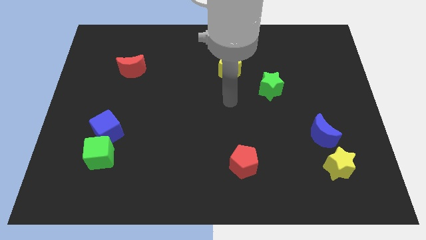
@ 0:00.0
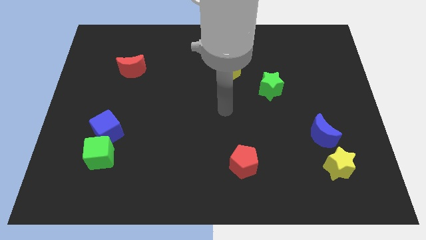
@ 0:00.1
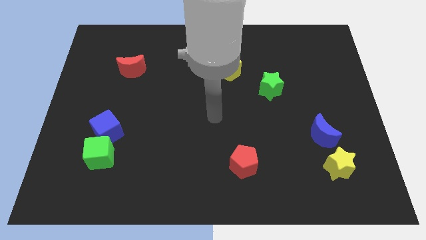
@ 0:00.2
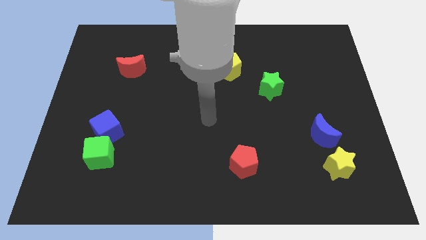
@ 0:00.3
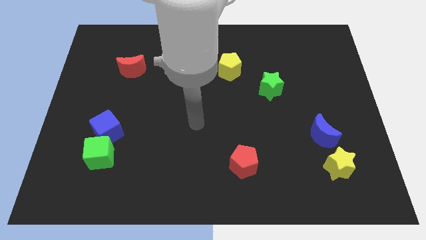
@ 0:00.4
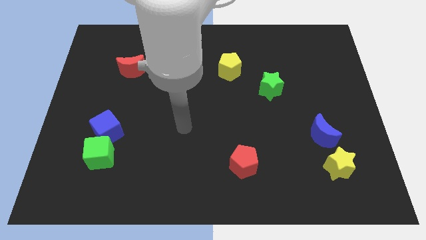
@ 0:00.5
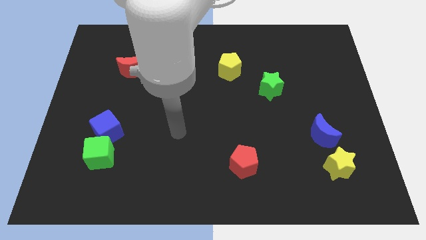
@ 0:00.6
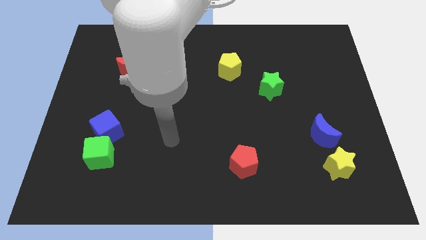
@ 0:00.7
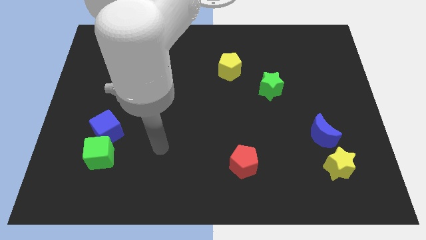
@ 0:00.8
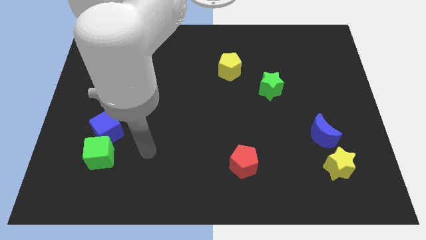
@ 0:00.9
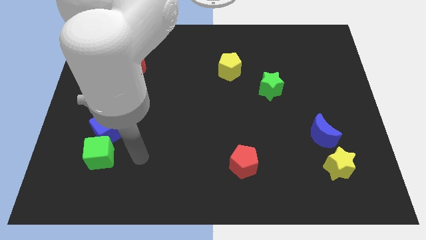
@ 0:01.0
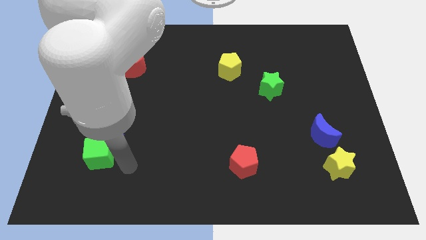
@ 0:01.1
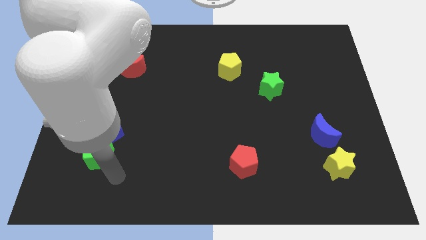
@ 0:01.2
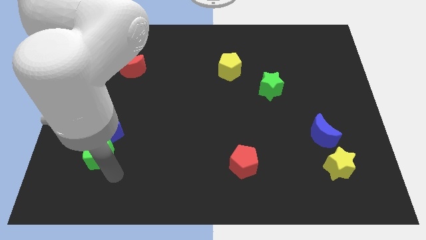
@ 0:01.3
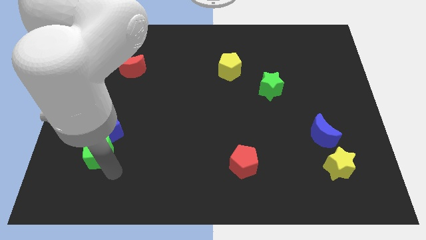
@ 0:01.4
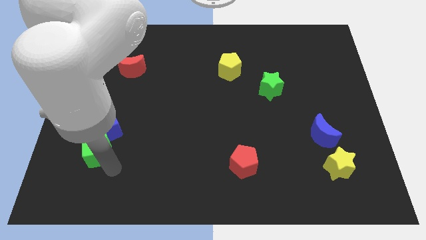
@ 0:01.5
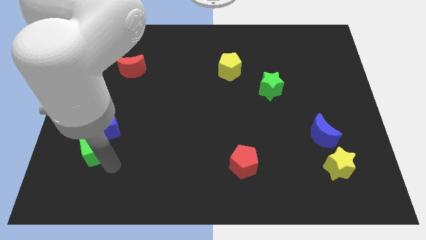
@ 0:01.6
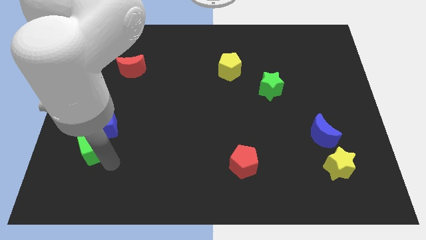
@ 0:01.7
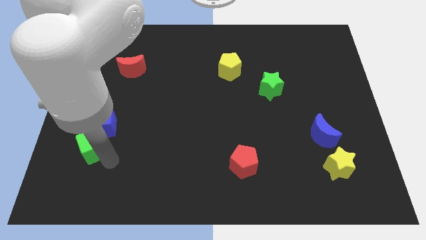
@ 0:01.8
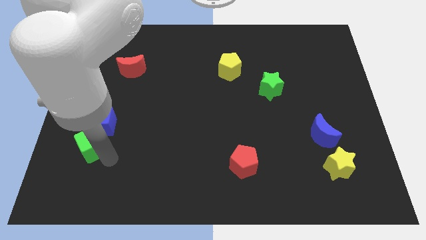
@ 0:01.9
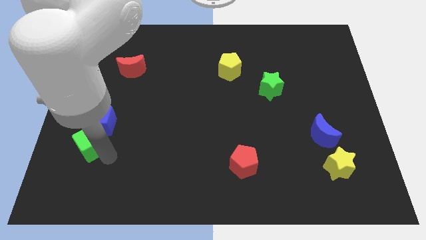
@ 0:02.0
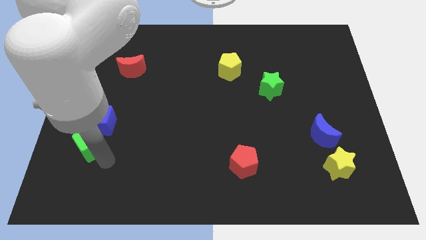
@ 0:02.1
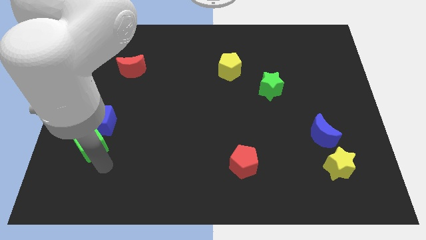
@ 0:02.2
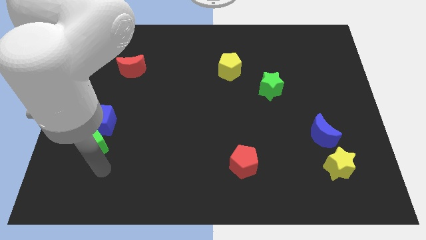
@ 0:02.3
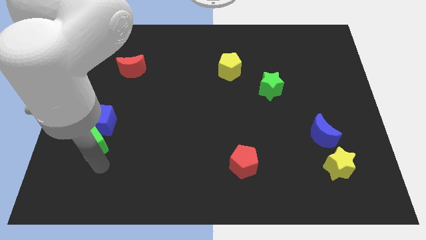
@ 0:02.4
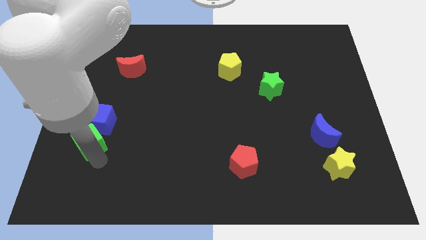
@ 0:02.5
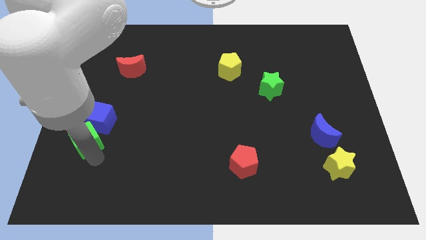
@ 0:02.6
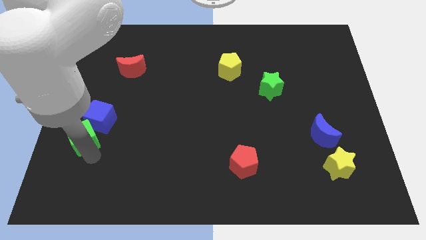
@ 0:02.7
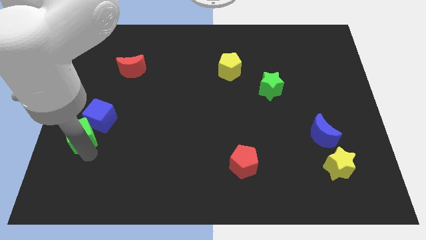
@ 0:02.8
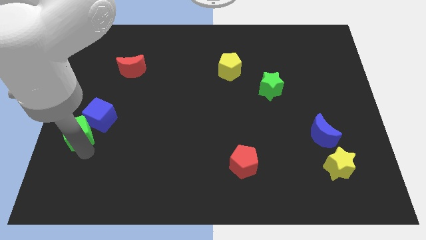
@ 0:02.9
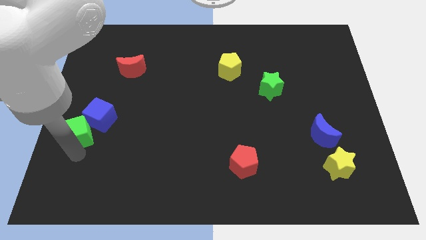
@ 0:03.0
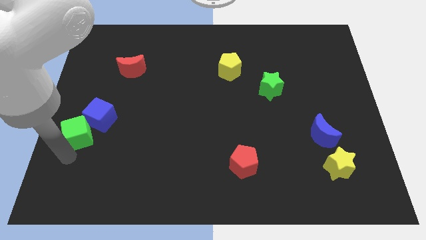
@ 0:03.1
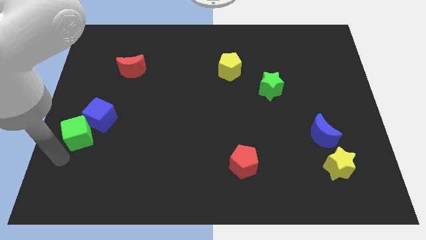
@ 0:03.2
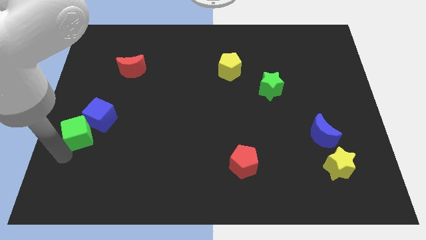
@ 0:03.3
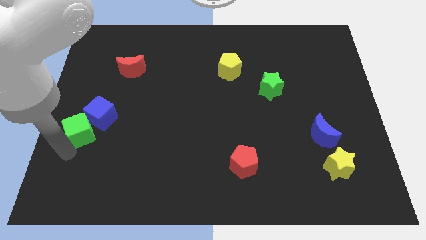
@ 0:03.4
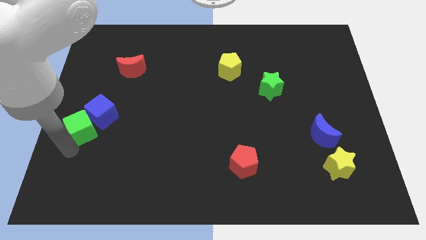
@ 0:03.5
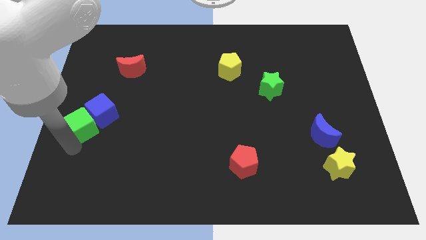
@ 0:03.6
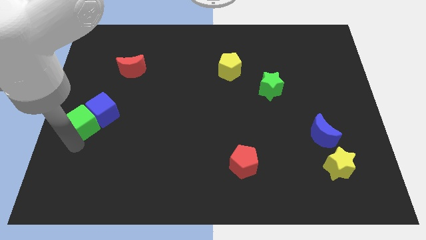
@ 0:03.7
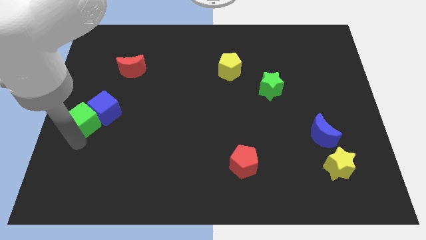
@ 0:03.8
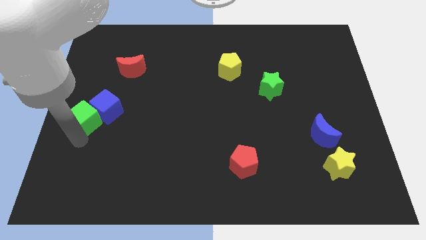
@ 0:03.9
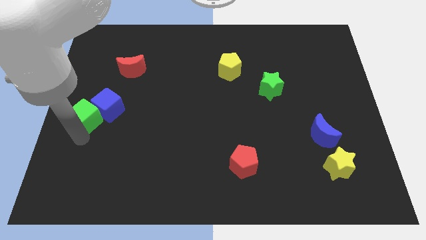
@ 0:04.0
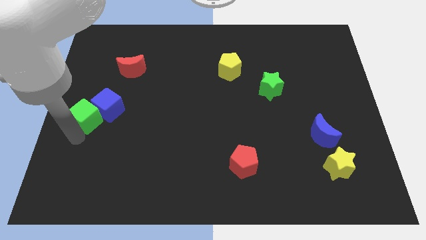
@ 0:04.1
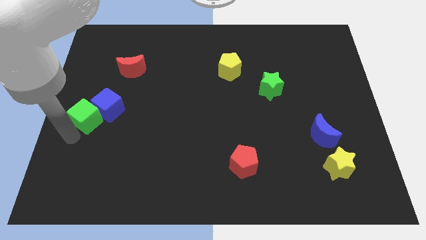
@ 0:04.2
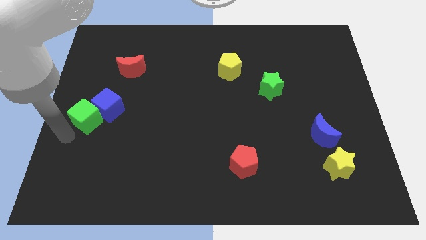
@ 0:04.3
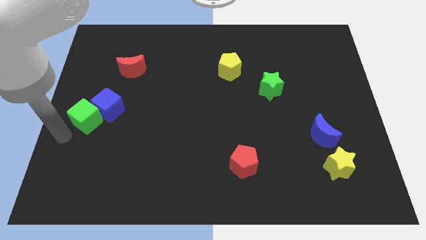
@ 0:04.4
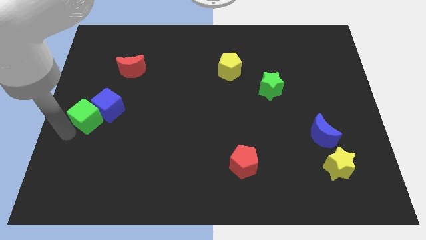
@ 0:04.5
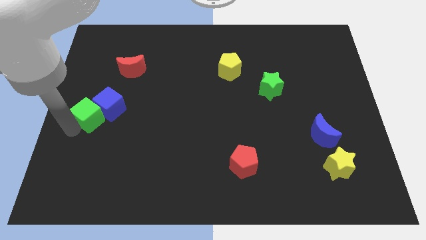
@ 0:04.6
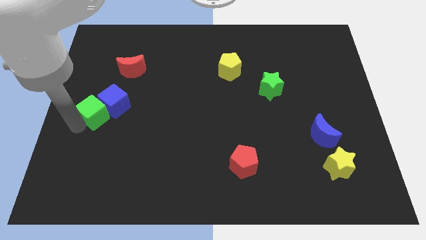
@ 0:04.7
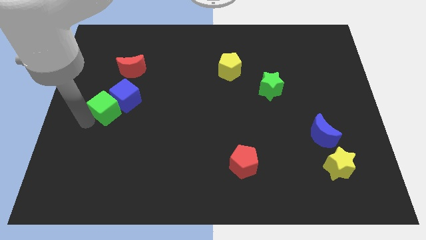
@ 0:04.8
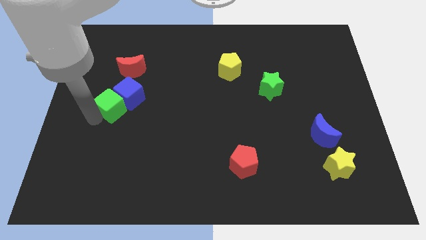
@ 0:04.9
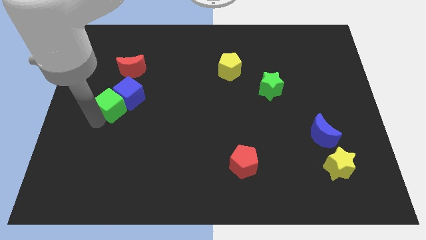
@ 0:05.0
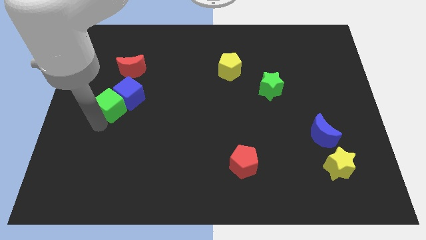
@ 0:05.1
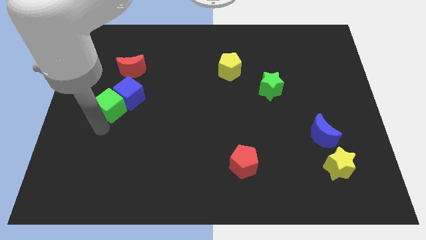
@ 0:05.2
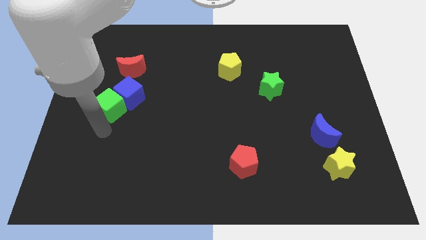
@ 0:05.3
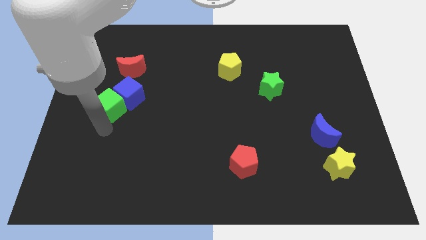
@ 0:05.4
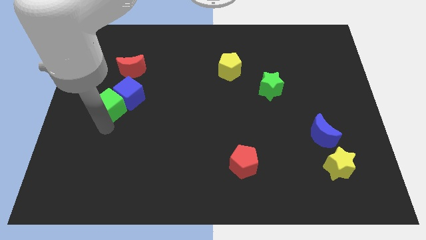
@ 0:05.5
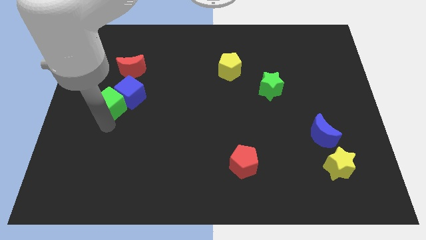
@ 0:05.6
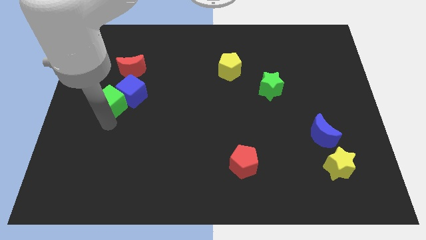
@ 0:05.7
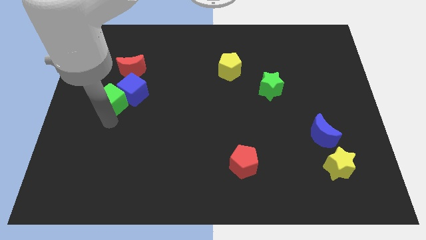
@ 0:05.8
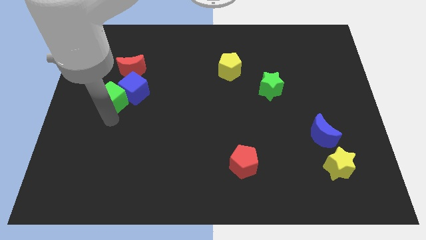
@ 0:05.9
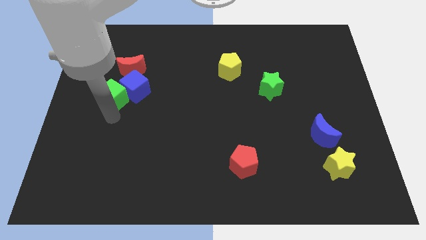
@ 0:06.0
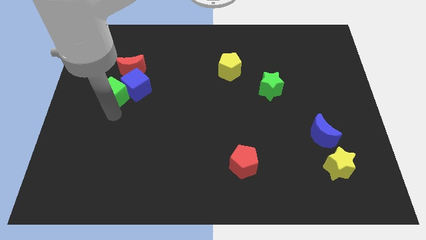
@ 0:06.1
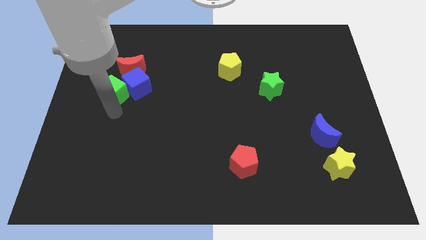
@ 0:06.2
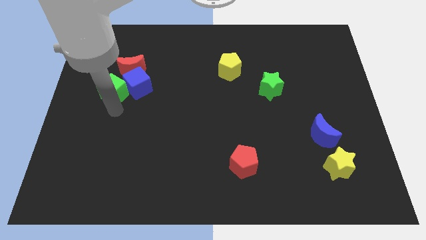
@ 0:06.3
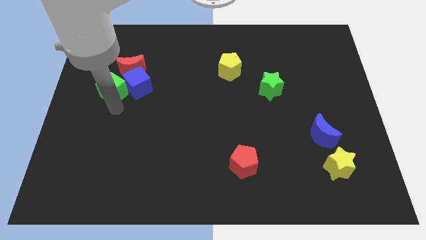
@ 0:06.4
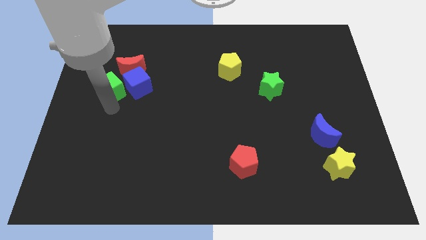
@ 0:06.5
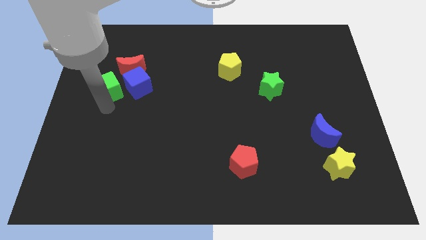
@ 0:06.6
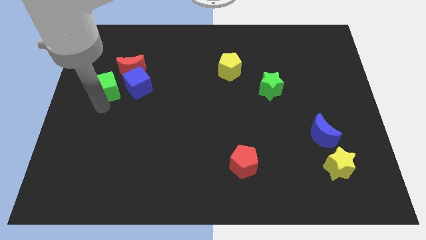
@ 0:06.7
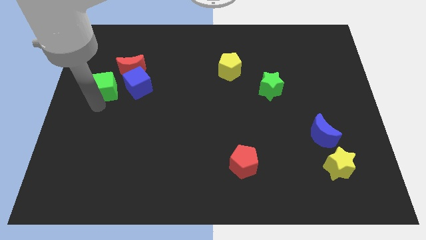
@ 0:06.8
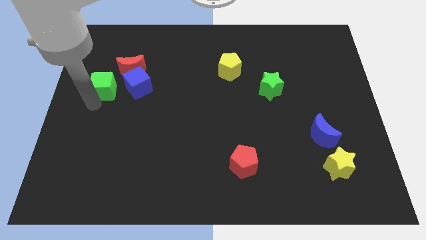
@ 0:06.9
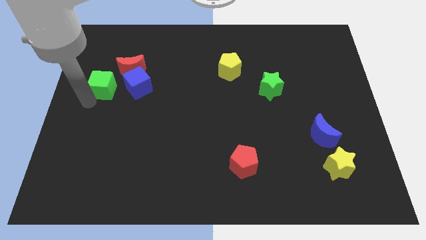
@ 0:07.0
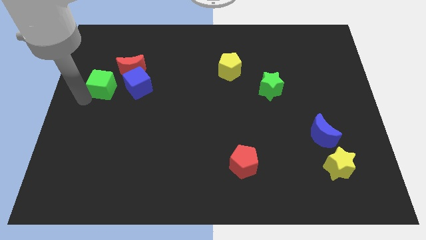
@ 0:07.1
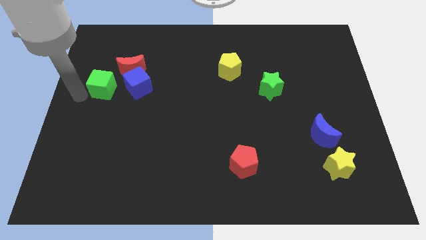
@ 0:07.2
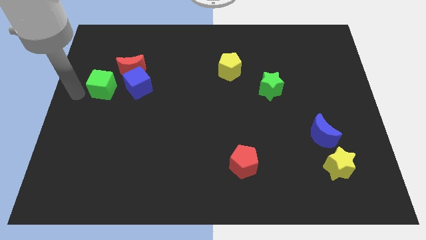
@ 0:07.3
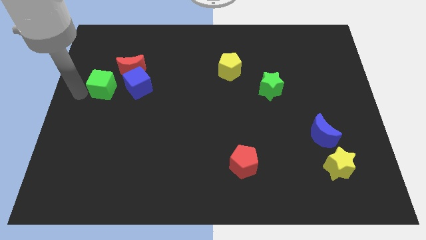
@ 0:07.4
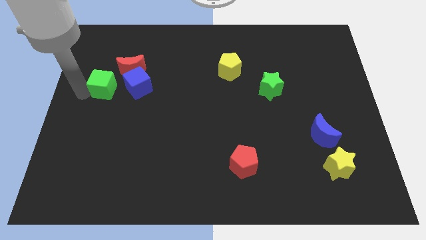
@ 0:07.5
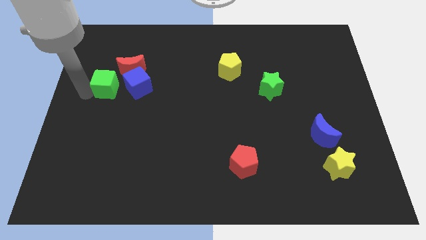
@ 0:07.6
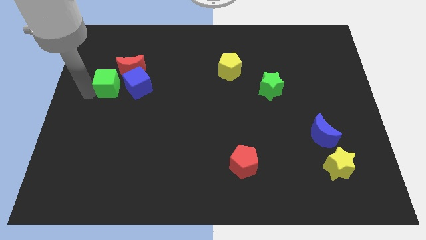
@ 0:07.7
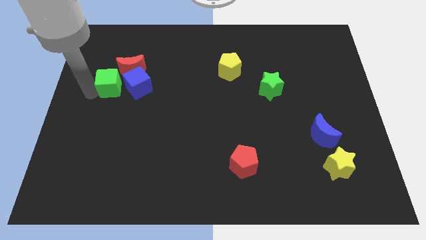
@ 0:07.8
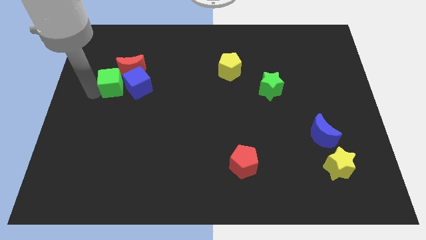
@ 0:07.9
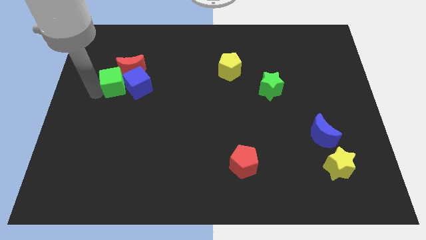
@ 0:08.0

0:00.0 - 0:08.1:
move the green cube to the red moon
